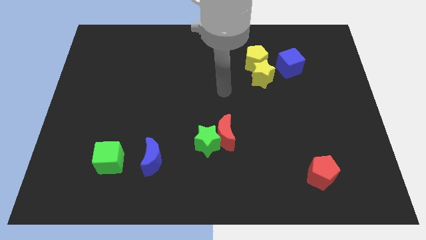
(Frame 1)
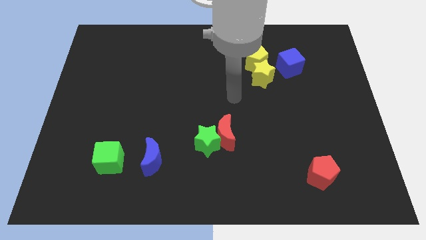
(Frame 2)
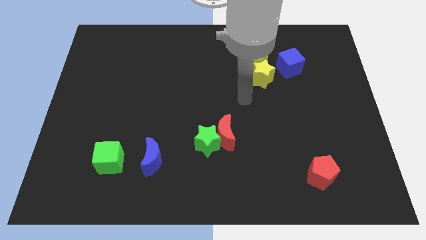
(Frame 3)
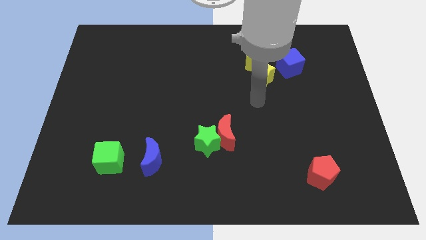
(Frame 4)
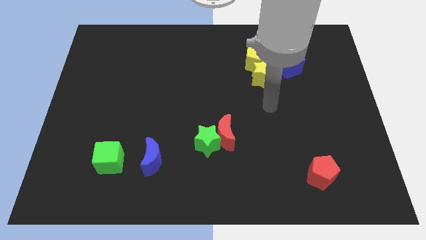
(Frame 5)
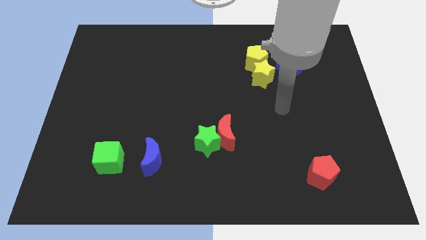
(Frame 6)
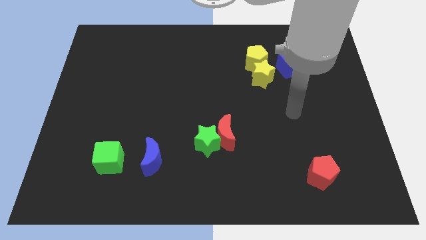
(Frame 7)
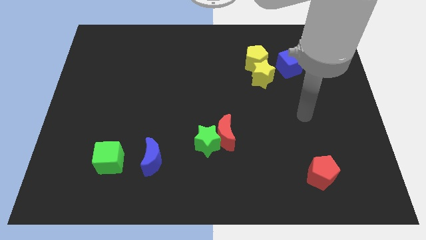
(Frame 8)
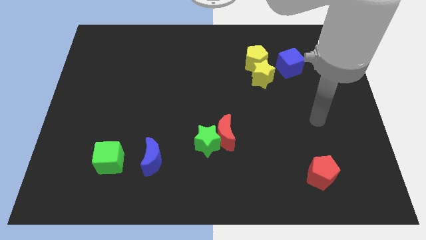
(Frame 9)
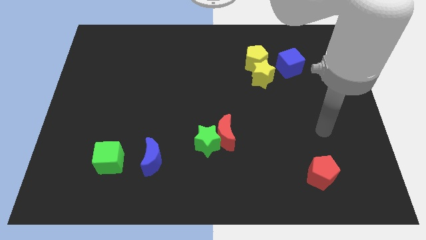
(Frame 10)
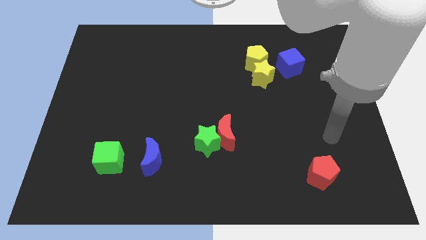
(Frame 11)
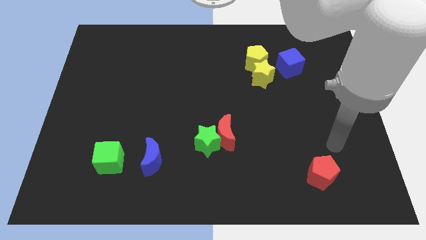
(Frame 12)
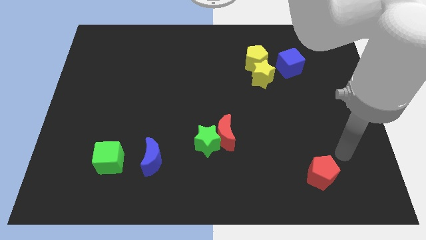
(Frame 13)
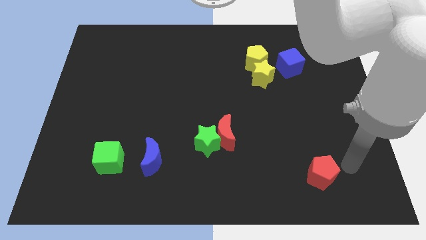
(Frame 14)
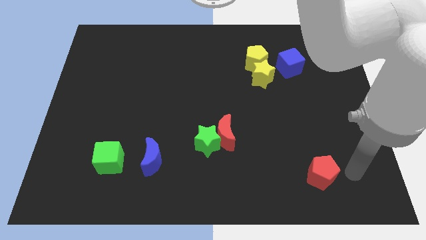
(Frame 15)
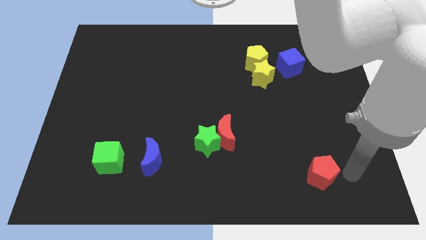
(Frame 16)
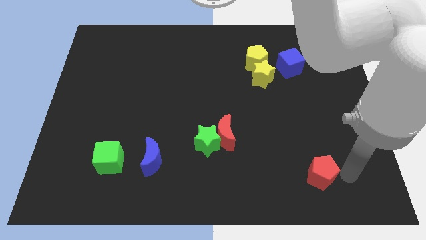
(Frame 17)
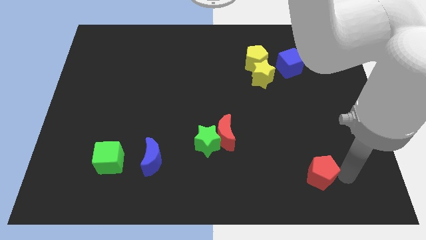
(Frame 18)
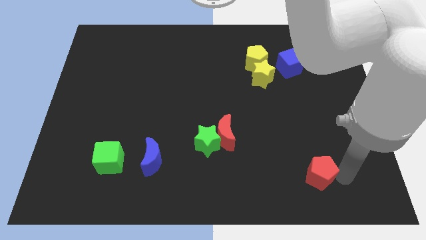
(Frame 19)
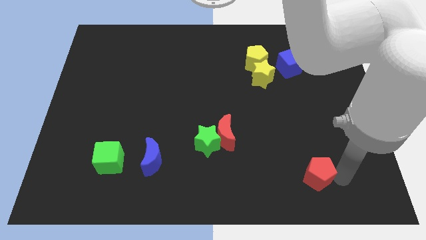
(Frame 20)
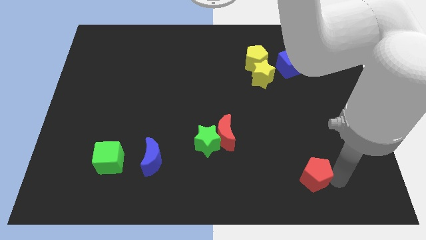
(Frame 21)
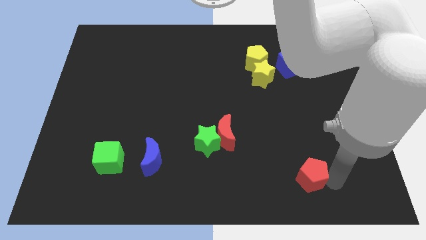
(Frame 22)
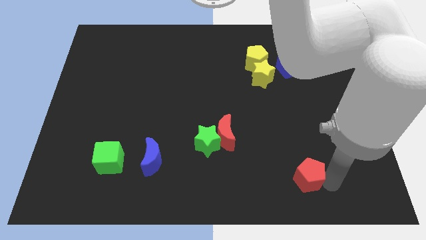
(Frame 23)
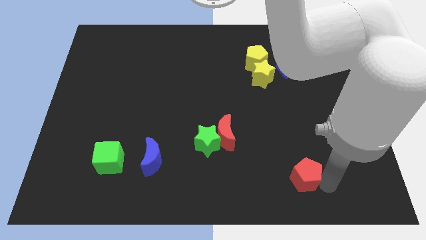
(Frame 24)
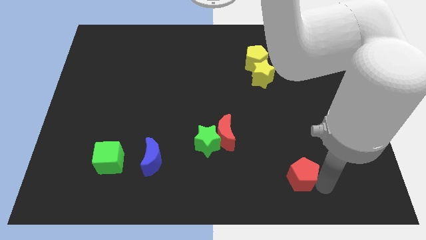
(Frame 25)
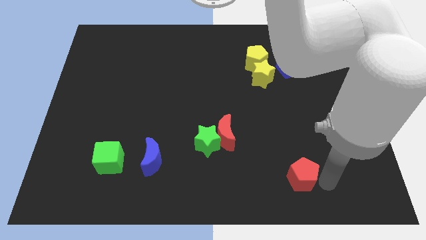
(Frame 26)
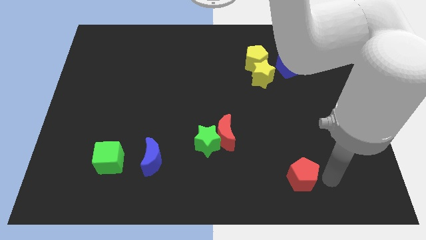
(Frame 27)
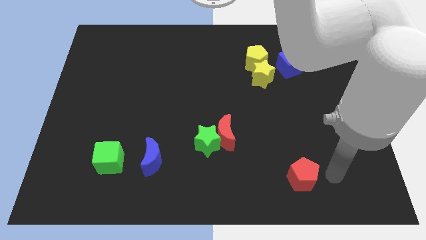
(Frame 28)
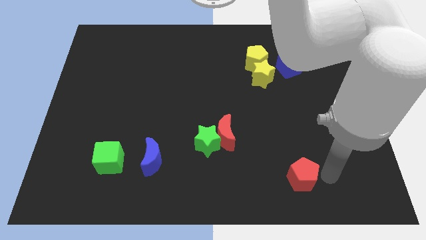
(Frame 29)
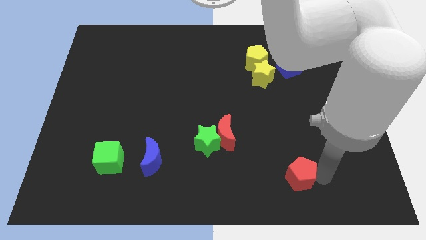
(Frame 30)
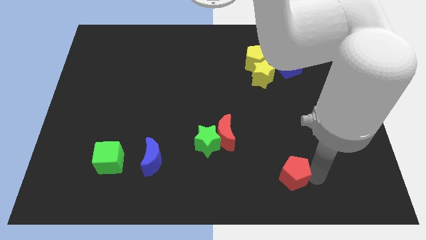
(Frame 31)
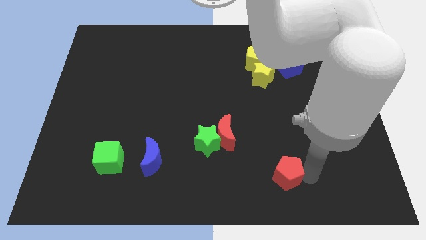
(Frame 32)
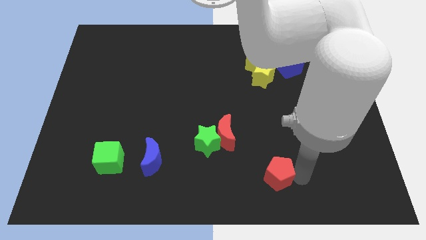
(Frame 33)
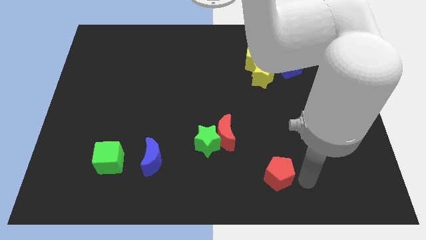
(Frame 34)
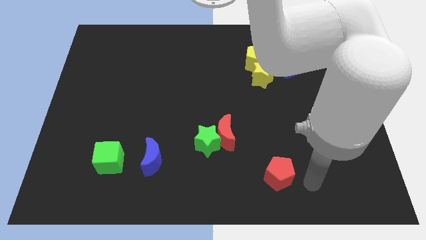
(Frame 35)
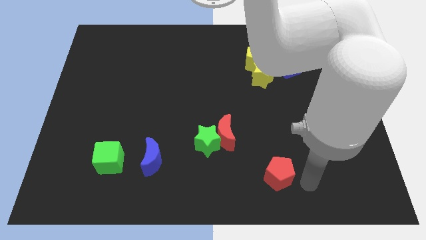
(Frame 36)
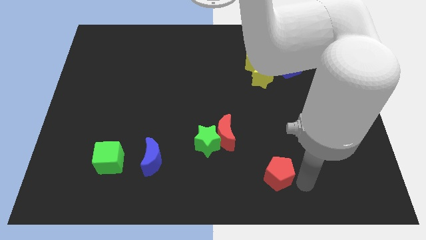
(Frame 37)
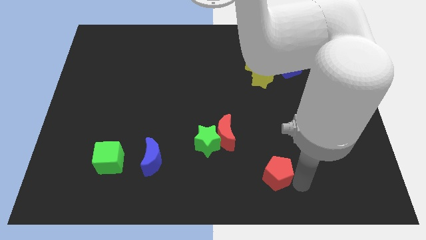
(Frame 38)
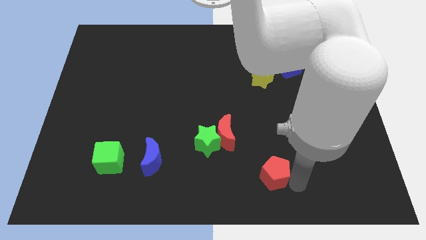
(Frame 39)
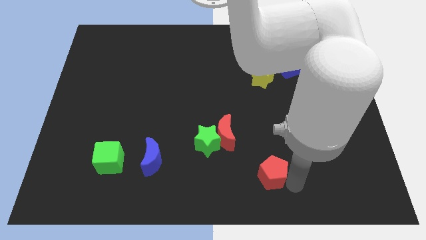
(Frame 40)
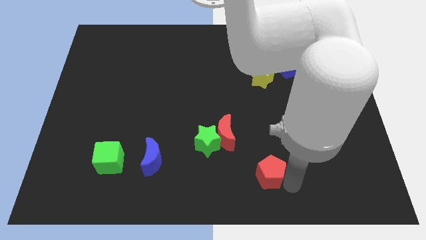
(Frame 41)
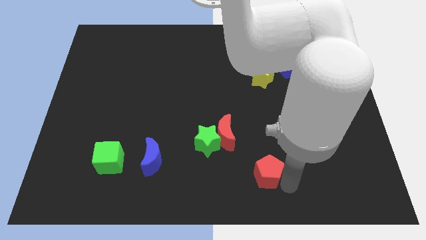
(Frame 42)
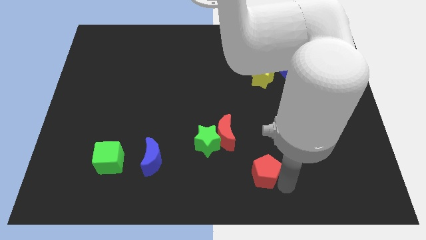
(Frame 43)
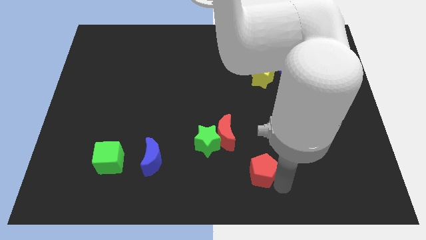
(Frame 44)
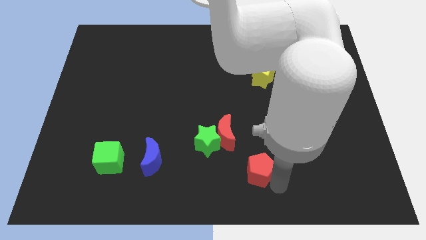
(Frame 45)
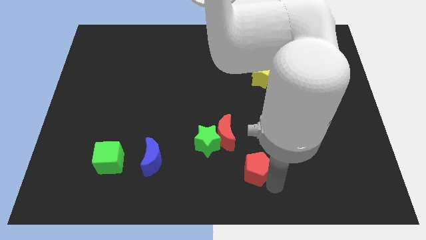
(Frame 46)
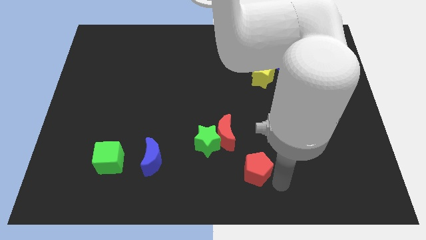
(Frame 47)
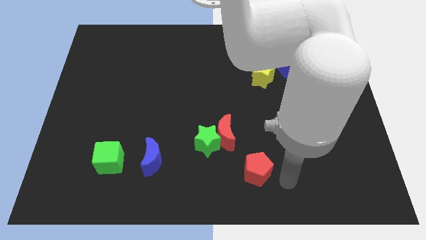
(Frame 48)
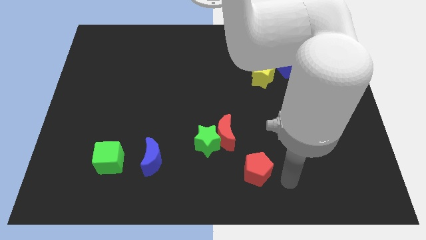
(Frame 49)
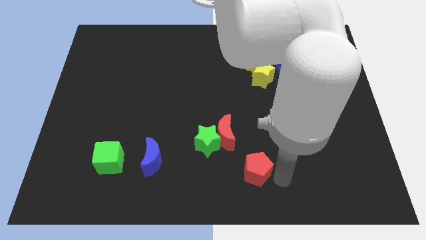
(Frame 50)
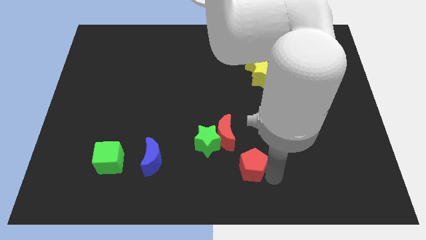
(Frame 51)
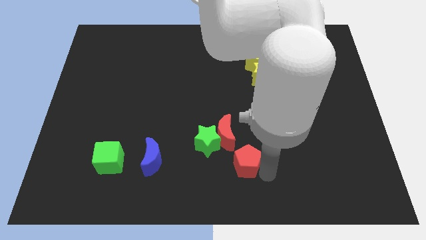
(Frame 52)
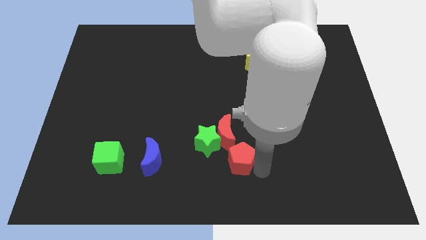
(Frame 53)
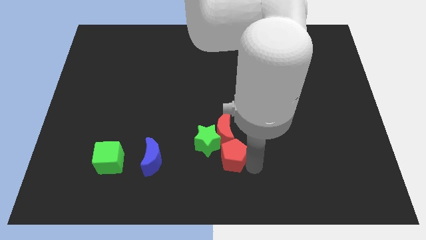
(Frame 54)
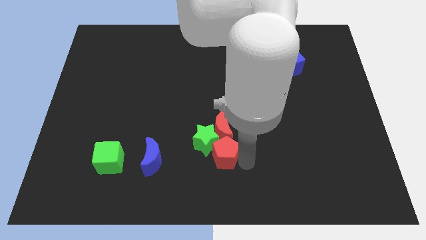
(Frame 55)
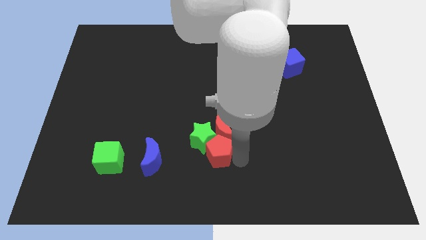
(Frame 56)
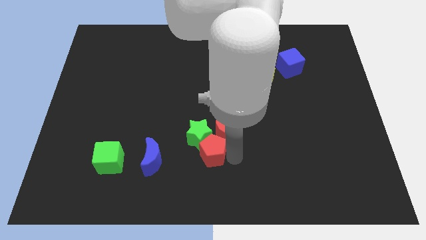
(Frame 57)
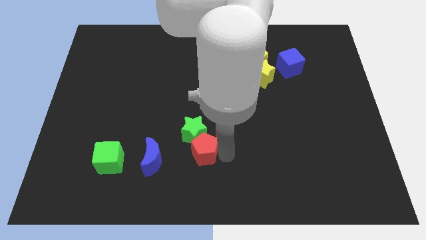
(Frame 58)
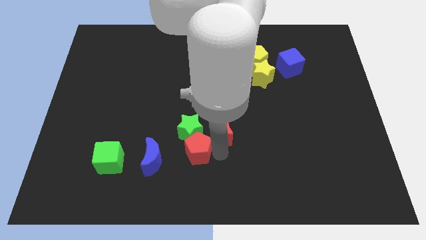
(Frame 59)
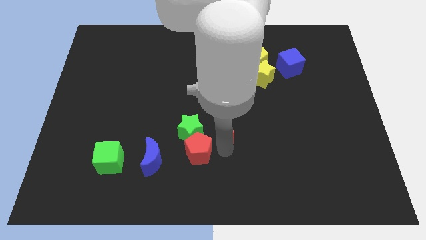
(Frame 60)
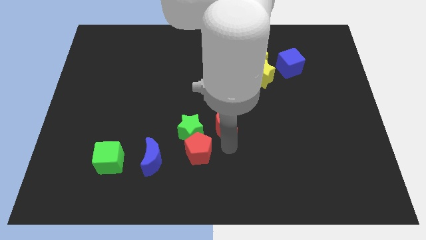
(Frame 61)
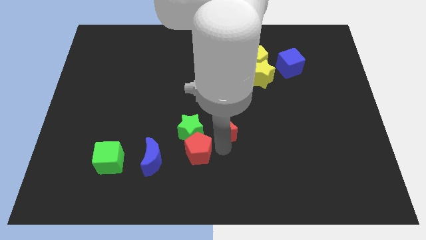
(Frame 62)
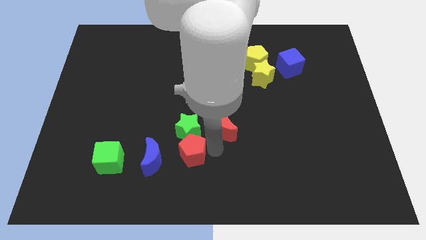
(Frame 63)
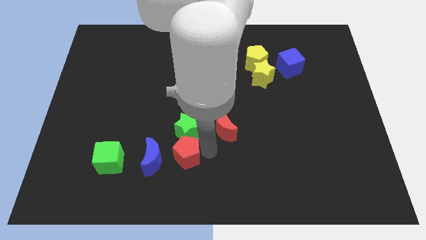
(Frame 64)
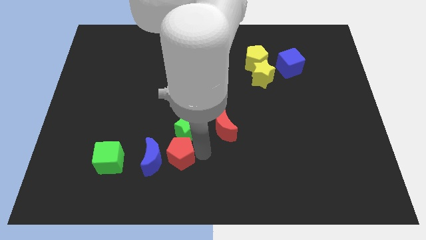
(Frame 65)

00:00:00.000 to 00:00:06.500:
move the red pentagon close to the blue moon

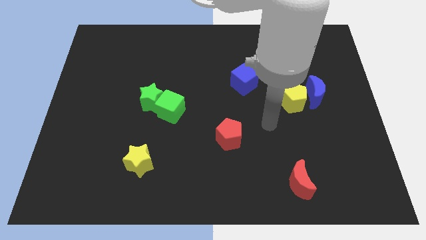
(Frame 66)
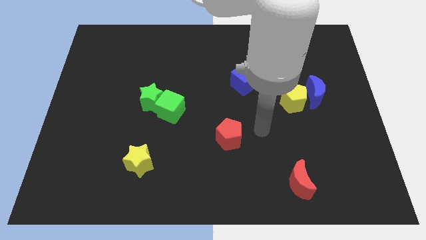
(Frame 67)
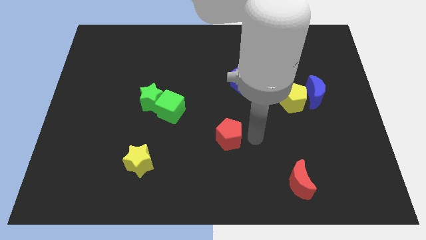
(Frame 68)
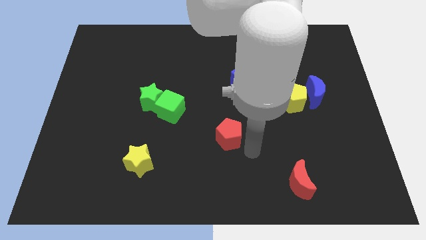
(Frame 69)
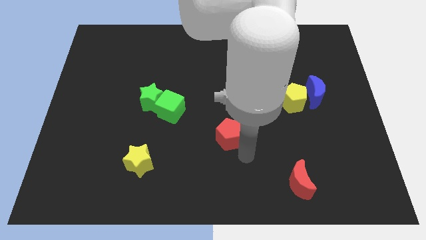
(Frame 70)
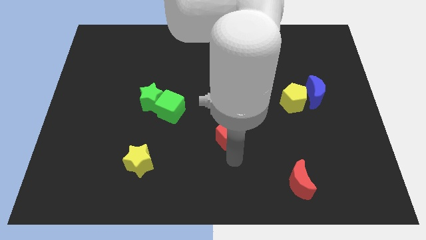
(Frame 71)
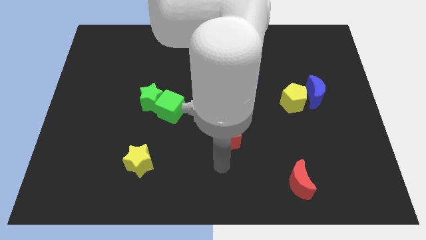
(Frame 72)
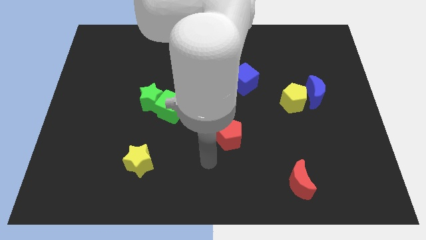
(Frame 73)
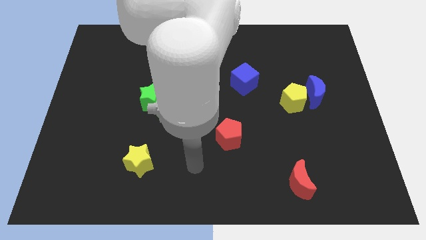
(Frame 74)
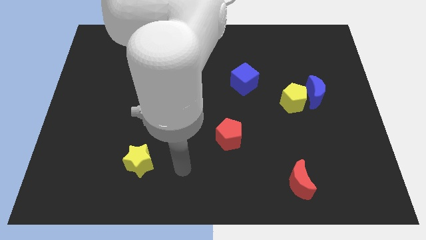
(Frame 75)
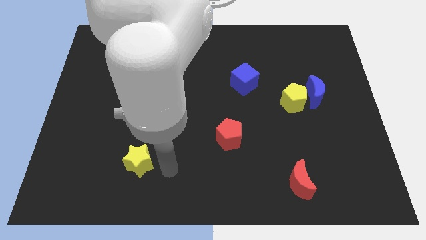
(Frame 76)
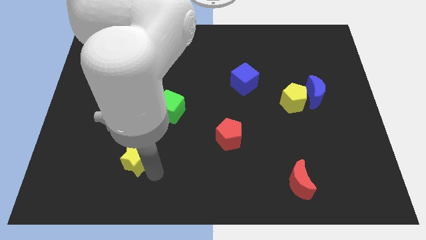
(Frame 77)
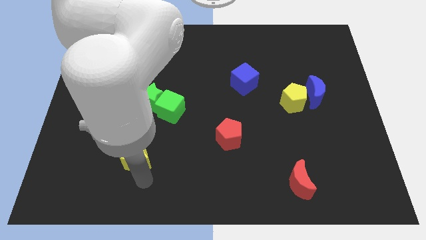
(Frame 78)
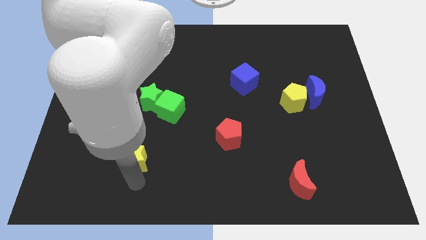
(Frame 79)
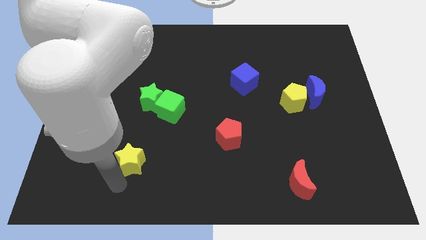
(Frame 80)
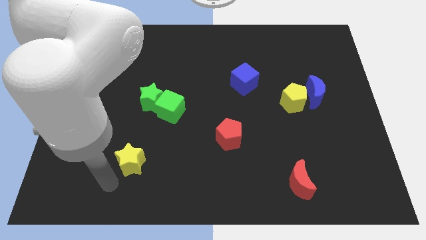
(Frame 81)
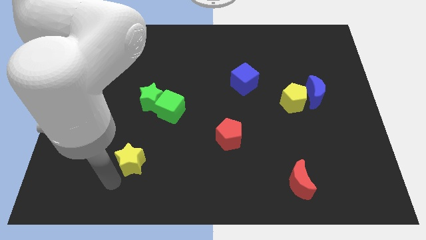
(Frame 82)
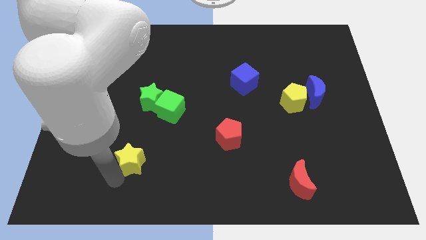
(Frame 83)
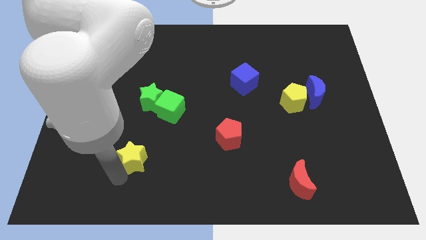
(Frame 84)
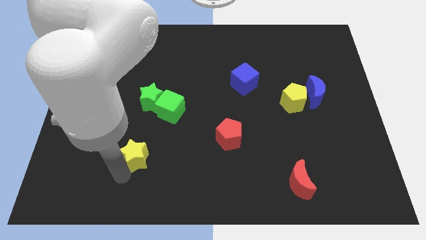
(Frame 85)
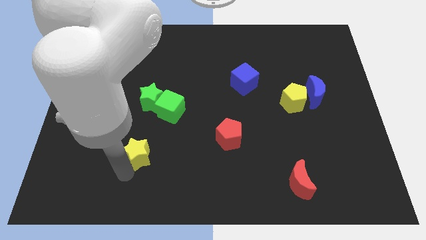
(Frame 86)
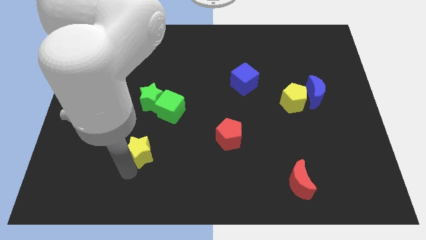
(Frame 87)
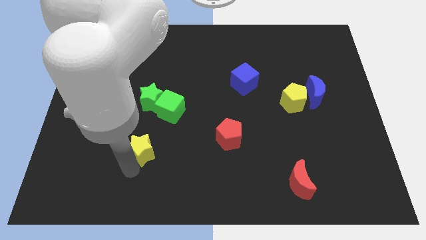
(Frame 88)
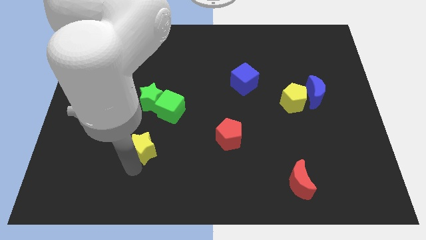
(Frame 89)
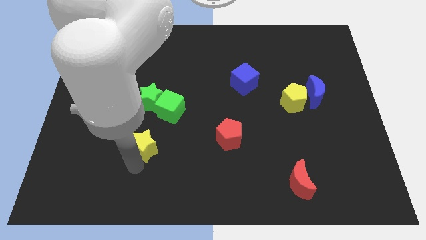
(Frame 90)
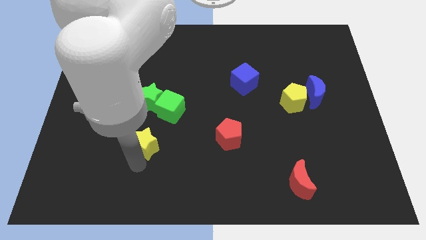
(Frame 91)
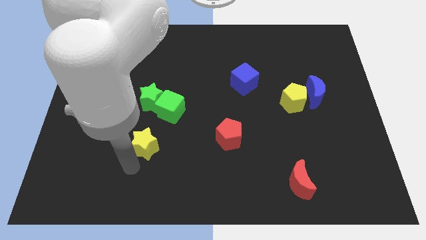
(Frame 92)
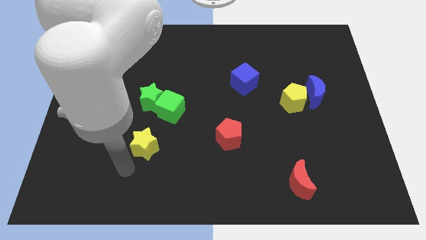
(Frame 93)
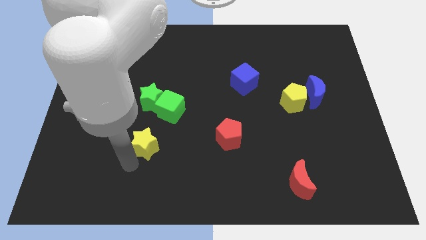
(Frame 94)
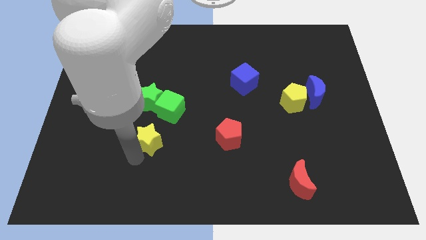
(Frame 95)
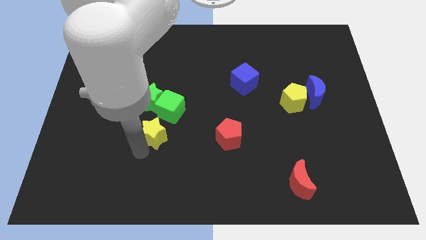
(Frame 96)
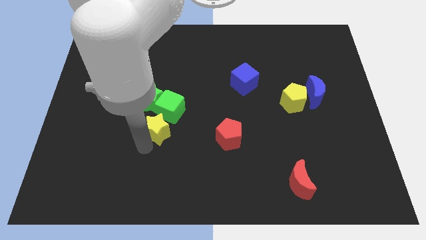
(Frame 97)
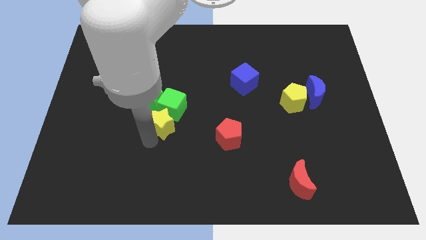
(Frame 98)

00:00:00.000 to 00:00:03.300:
push the yellow star next to the green cube
